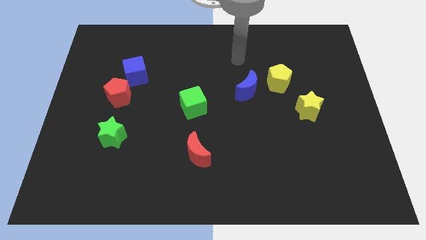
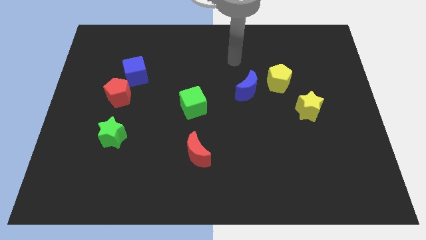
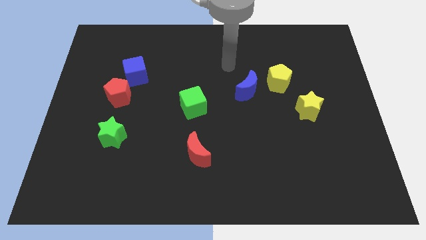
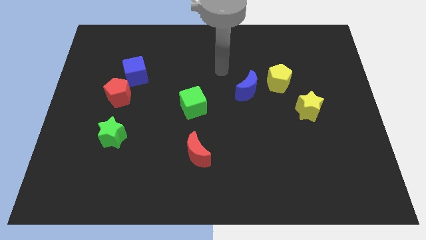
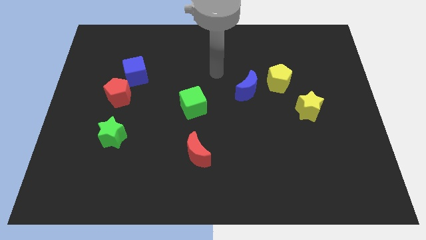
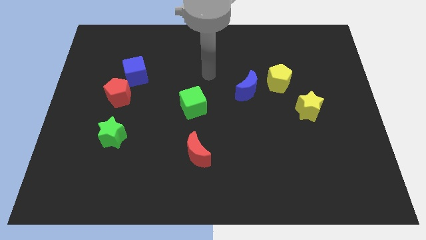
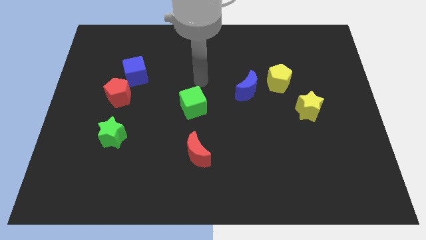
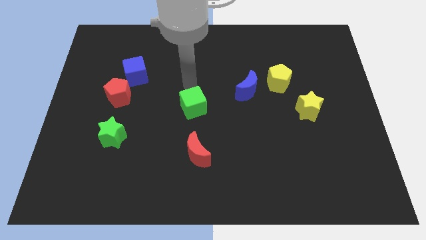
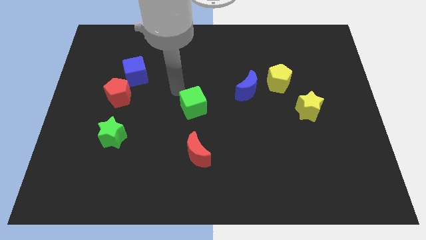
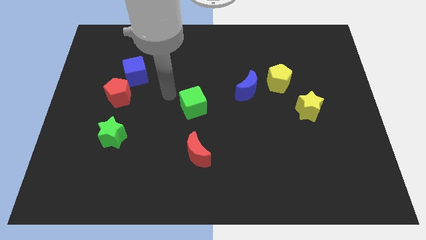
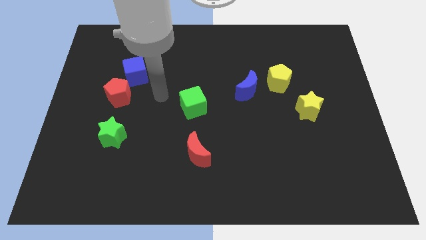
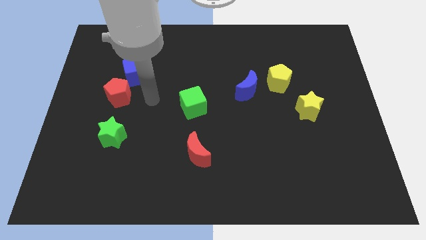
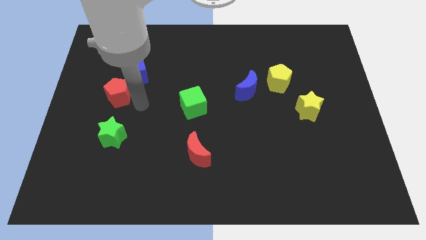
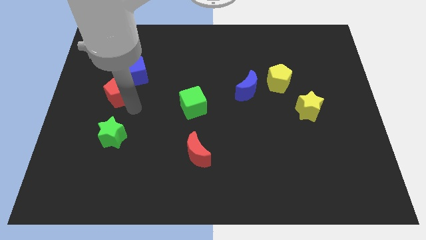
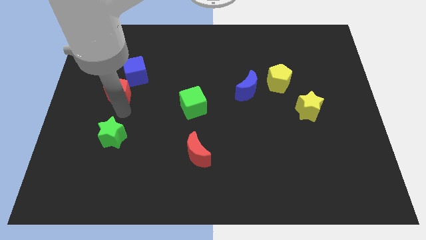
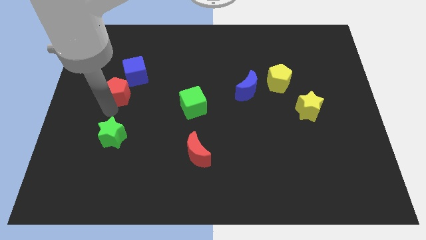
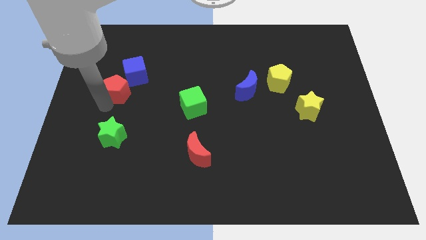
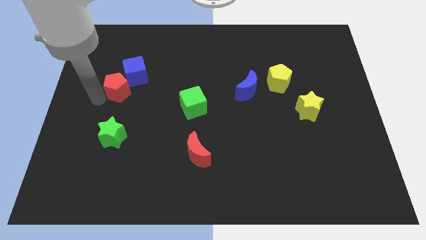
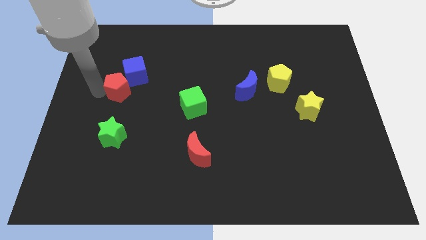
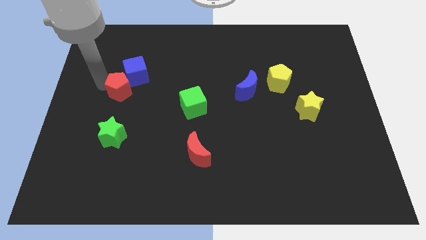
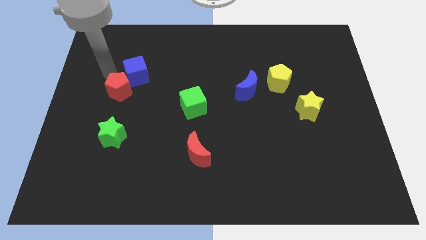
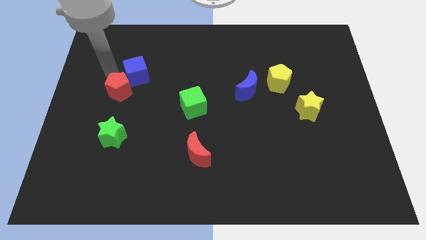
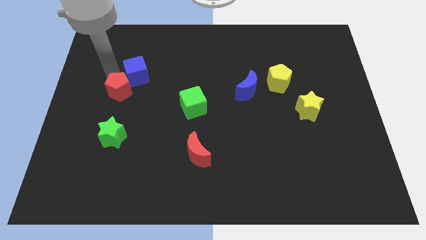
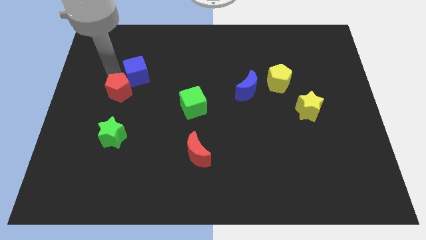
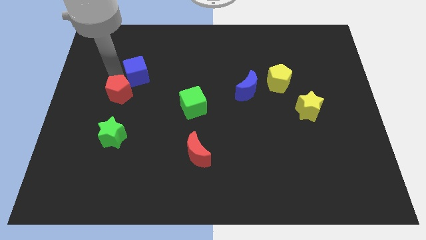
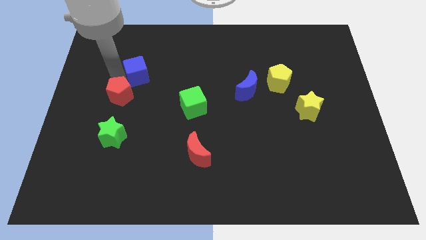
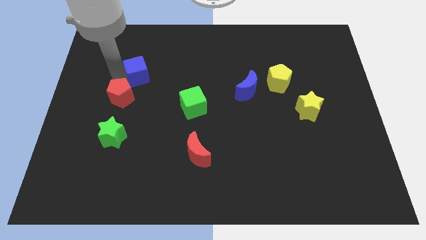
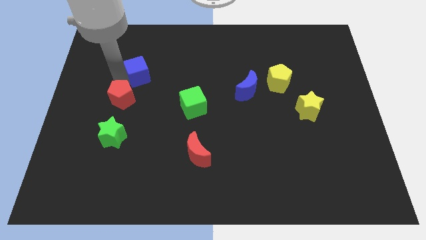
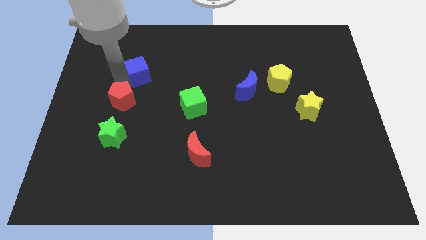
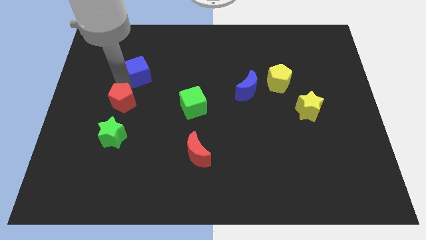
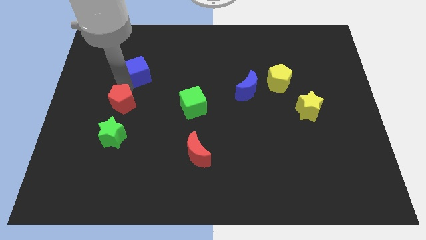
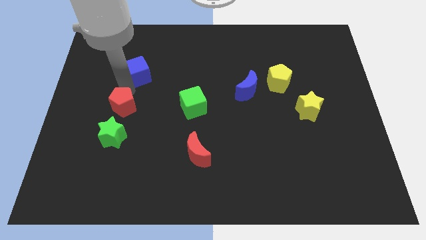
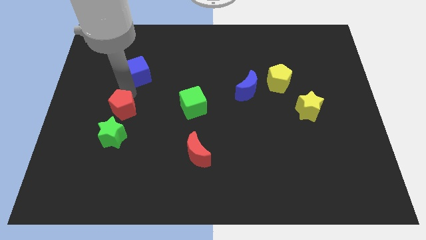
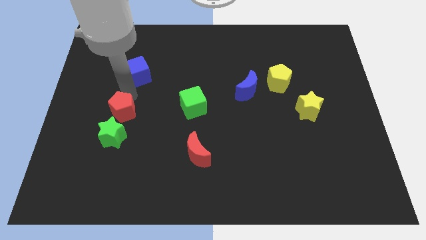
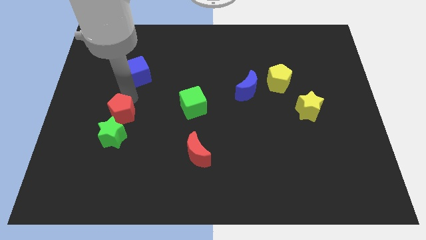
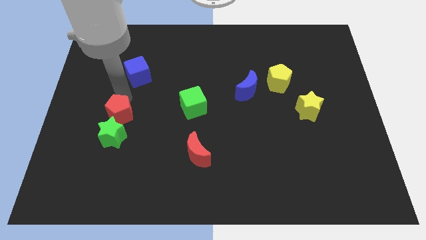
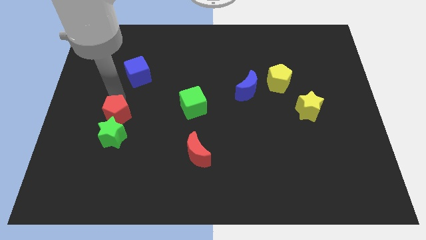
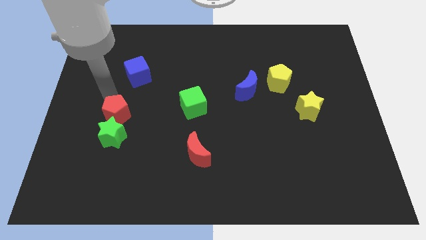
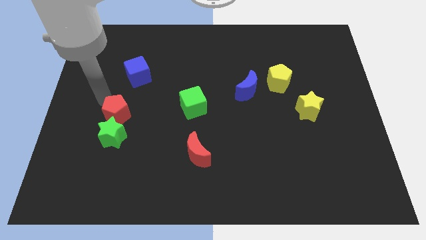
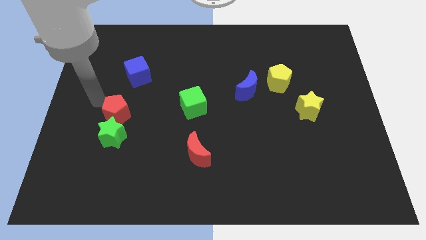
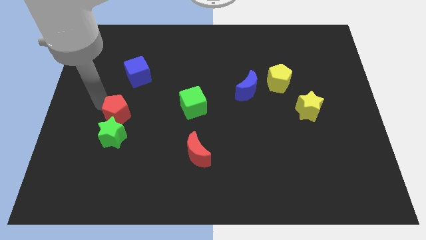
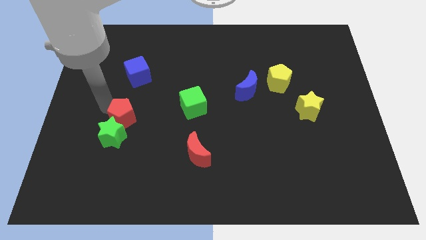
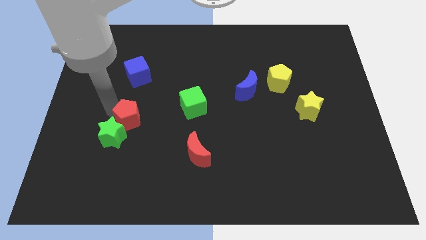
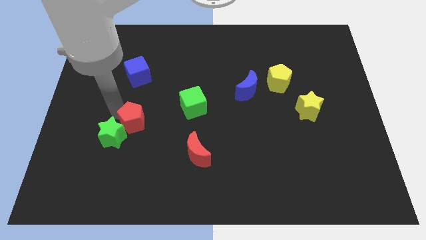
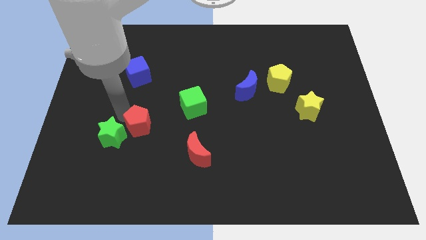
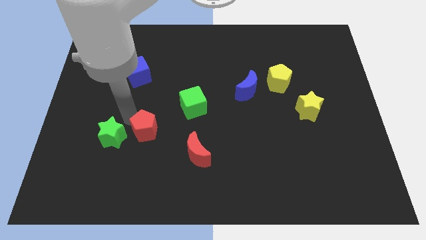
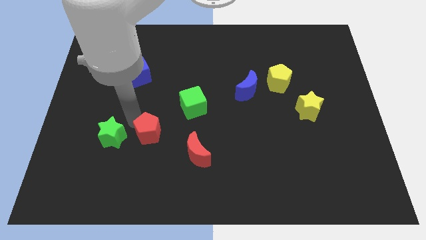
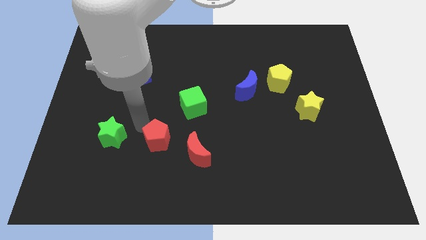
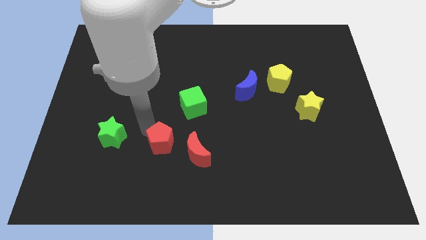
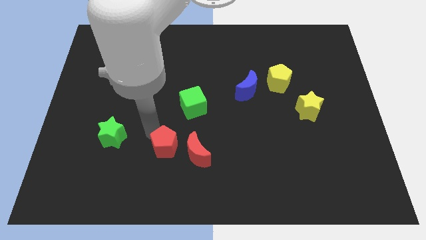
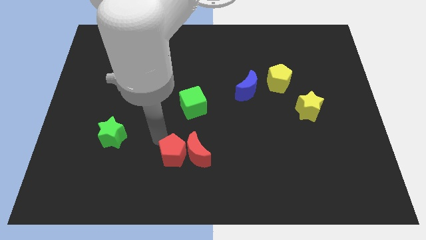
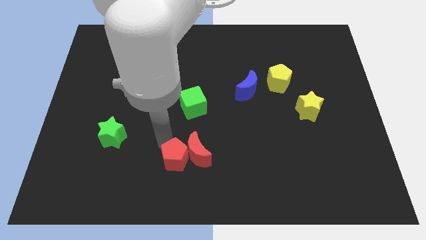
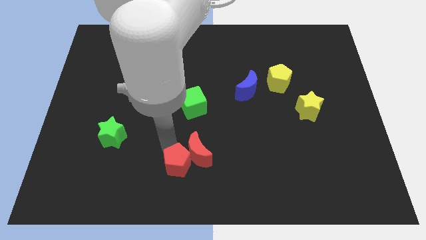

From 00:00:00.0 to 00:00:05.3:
slide the red pentagon to the bottom side

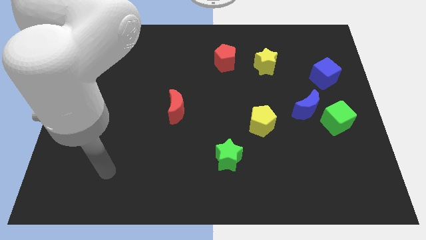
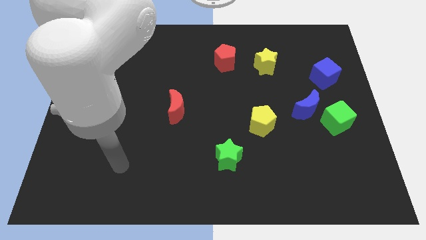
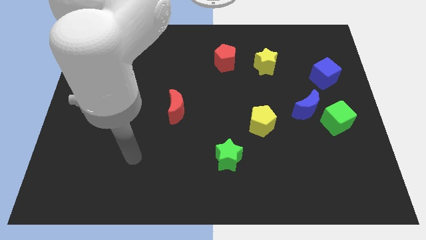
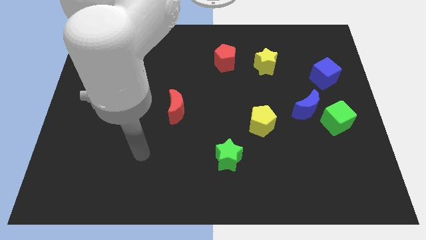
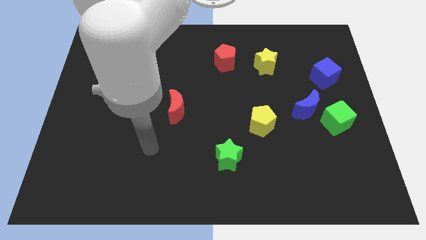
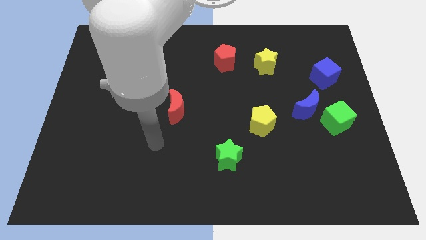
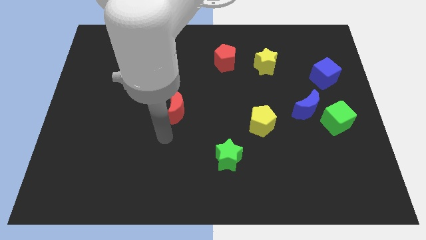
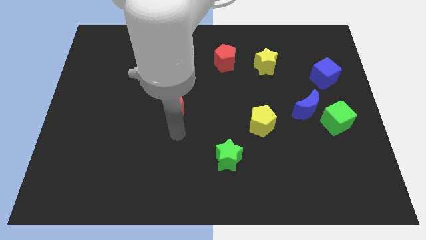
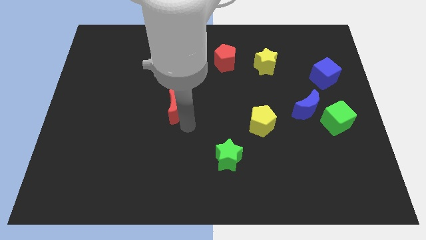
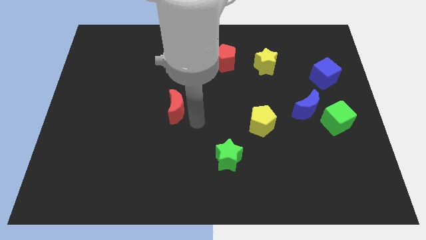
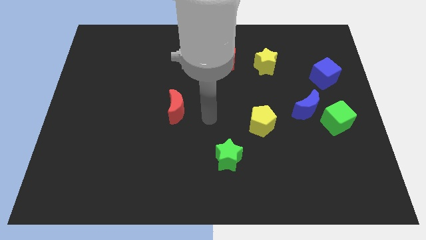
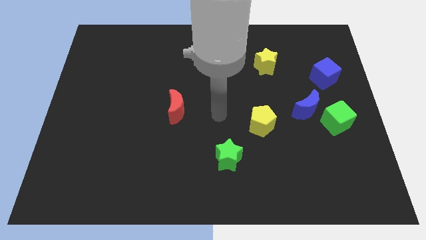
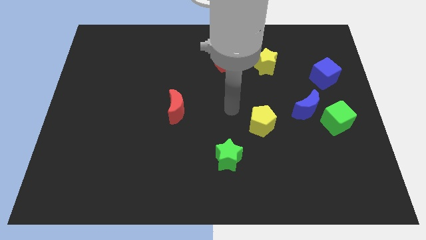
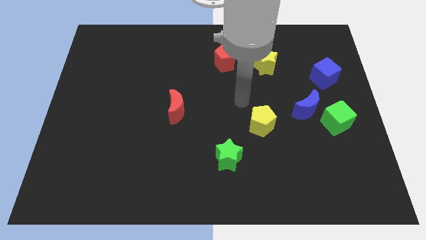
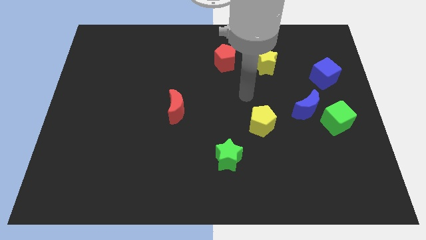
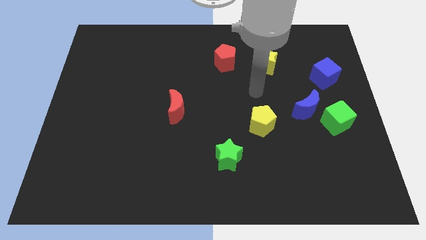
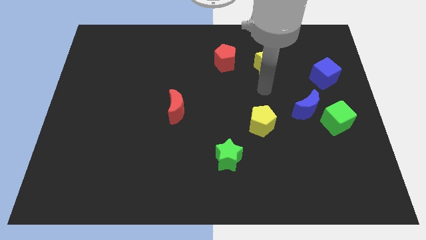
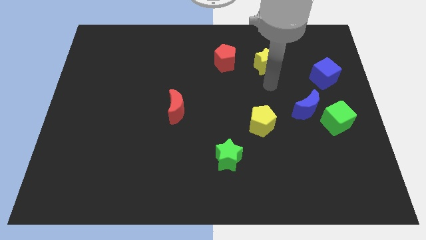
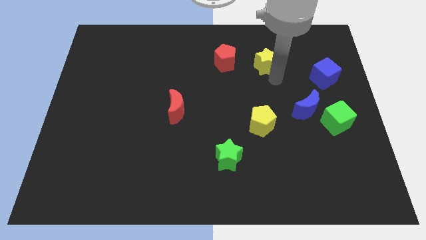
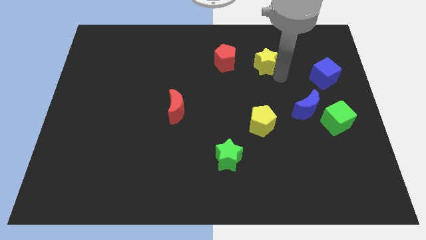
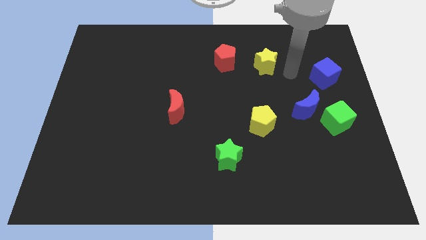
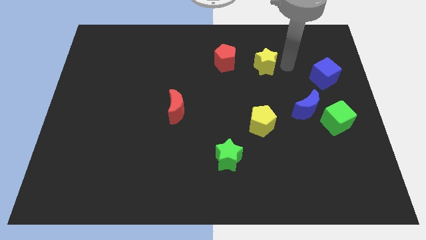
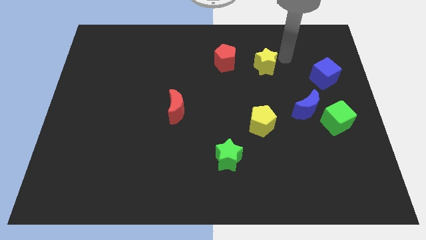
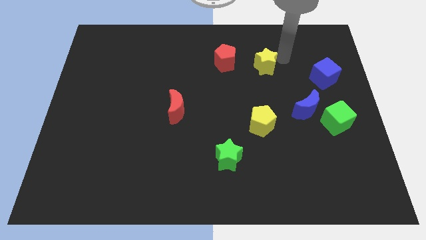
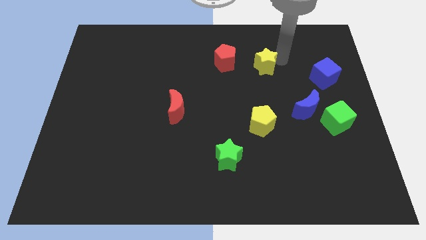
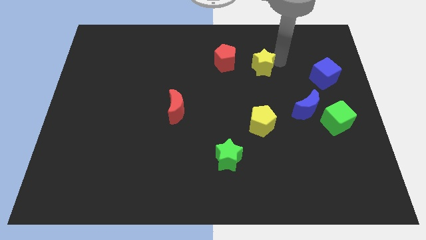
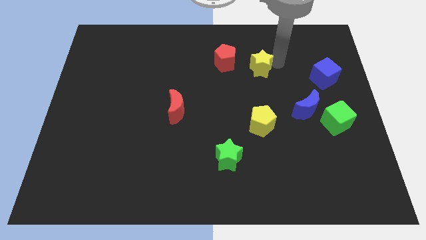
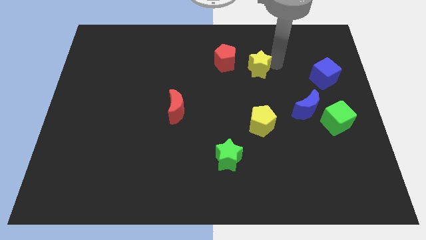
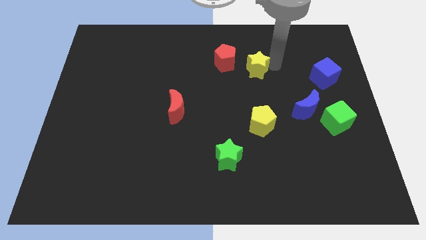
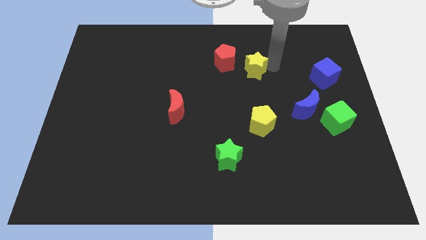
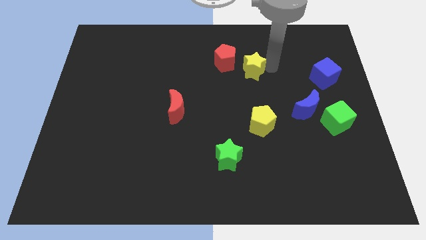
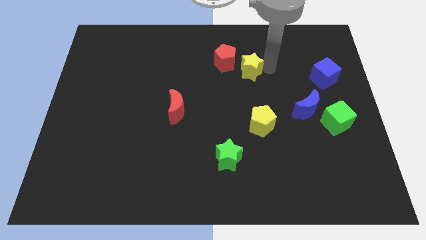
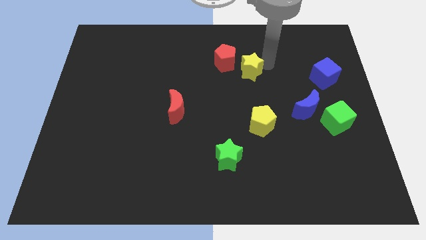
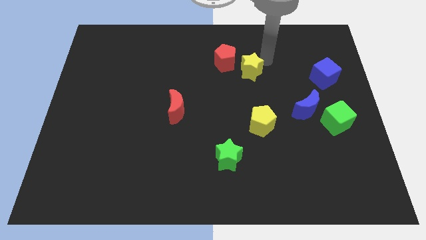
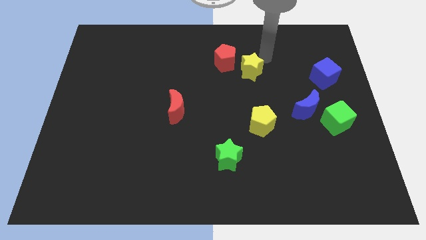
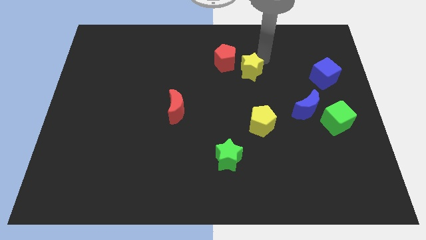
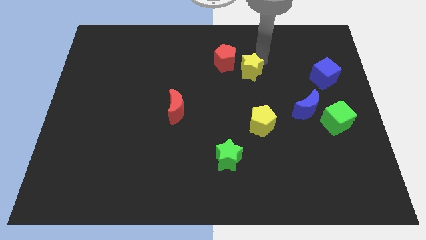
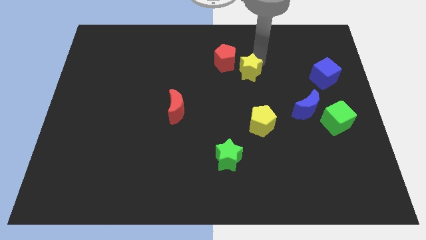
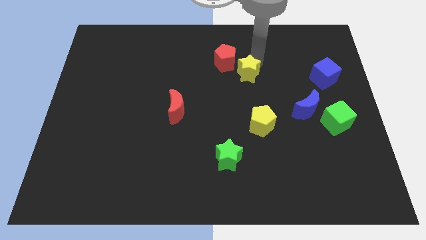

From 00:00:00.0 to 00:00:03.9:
put the yellow star to the center of the board
